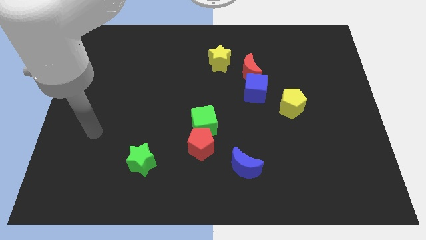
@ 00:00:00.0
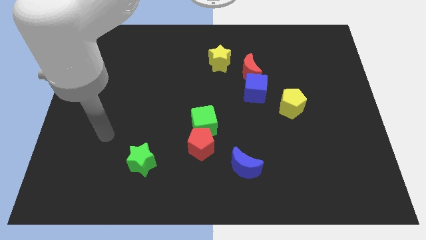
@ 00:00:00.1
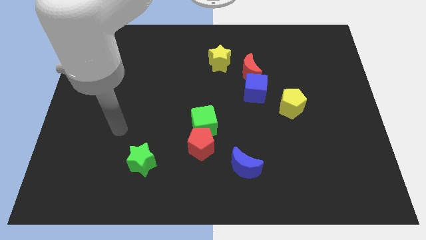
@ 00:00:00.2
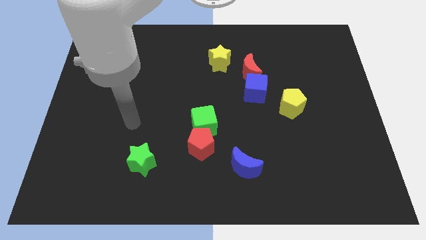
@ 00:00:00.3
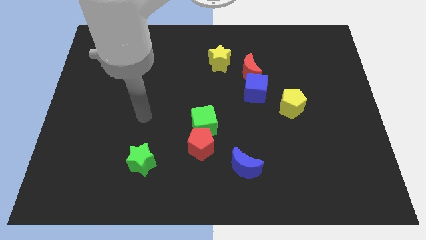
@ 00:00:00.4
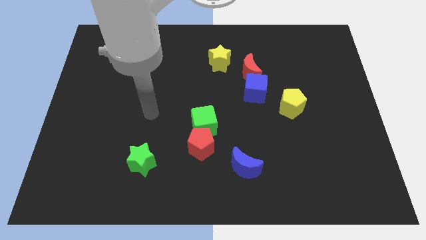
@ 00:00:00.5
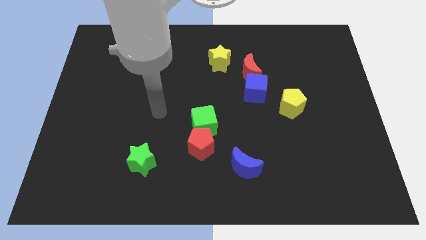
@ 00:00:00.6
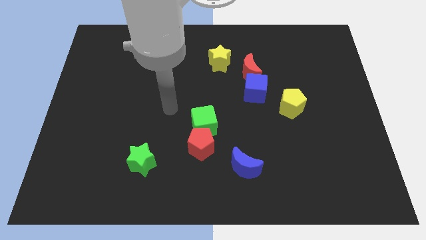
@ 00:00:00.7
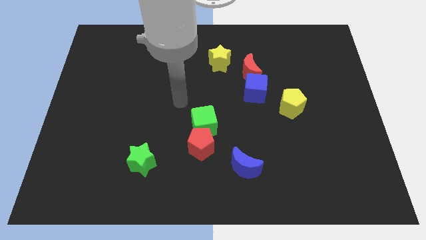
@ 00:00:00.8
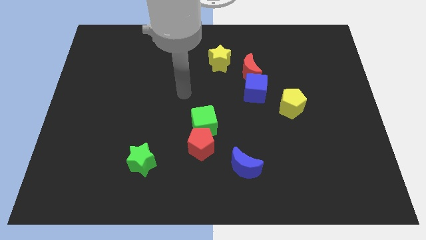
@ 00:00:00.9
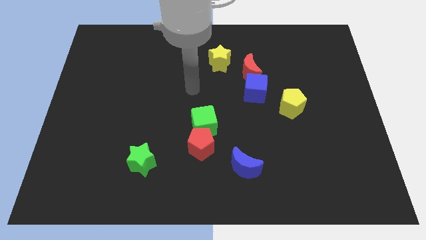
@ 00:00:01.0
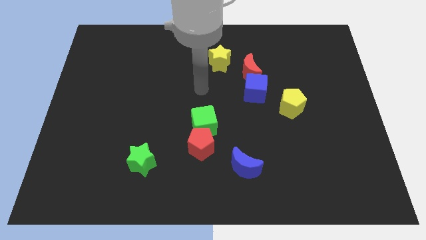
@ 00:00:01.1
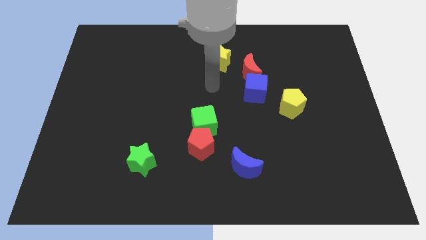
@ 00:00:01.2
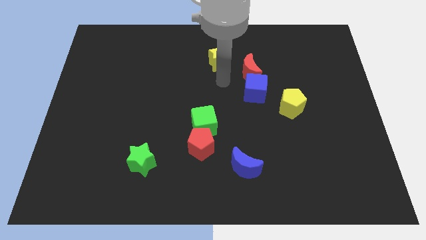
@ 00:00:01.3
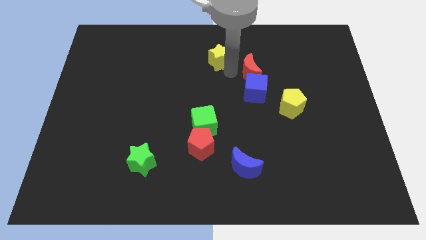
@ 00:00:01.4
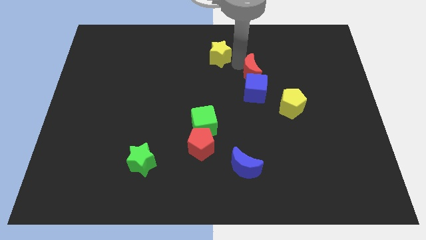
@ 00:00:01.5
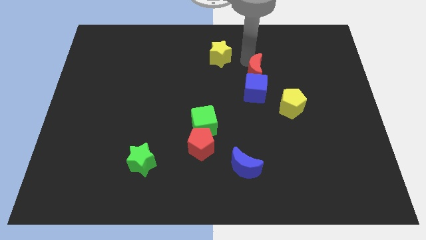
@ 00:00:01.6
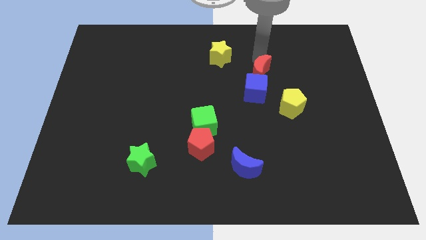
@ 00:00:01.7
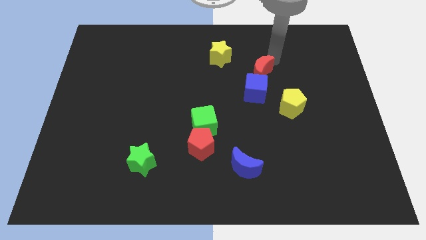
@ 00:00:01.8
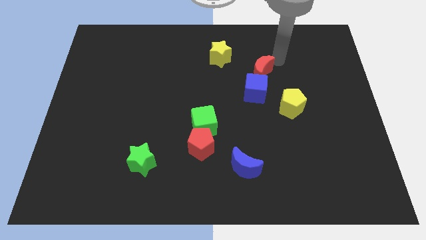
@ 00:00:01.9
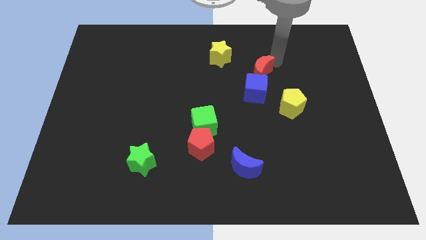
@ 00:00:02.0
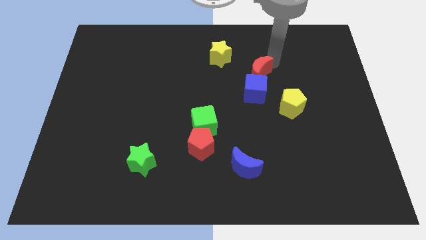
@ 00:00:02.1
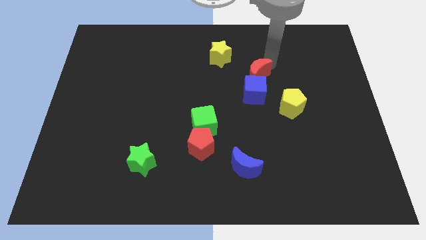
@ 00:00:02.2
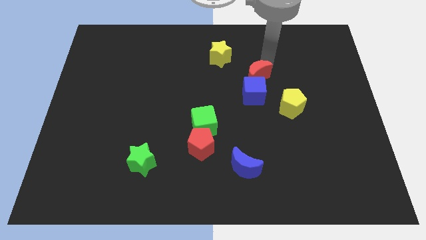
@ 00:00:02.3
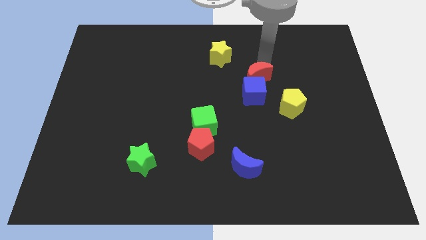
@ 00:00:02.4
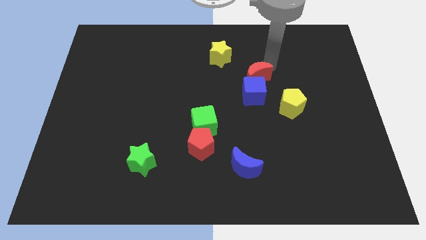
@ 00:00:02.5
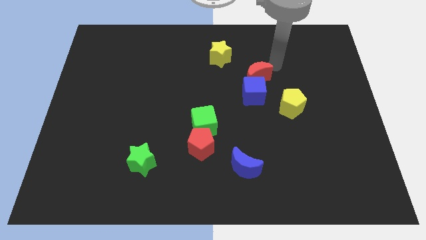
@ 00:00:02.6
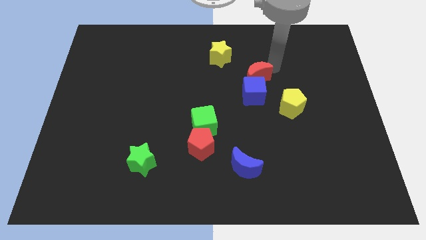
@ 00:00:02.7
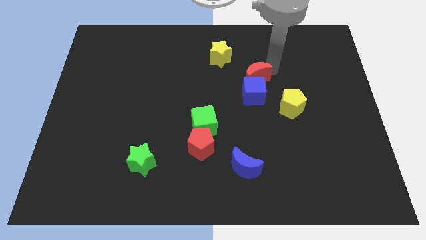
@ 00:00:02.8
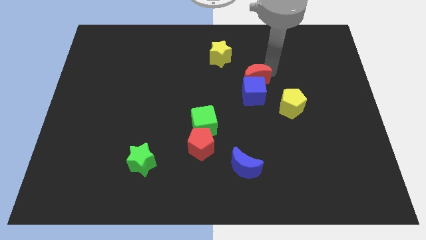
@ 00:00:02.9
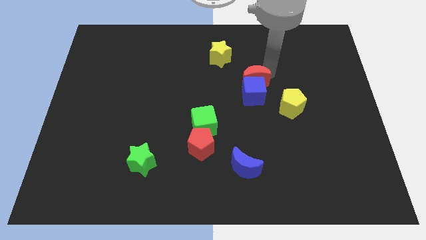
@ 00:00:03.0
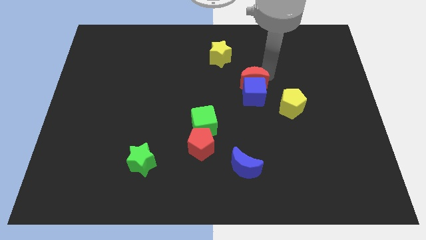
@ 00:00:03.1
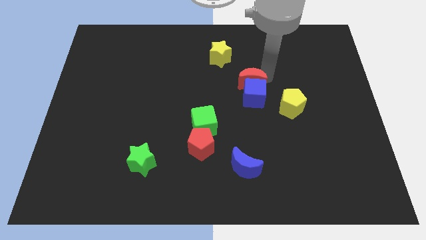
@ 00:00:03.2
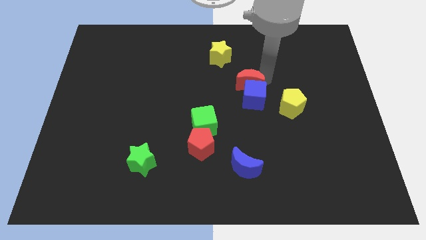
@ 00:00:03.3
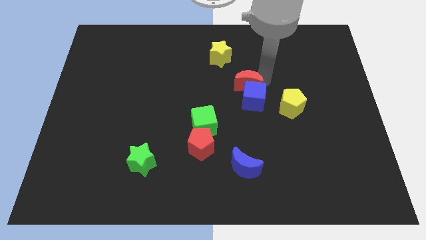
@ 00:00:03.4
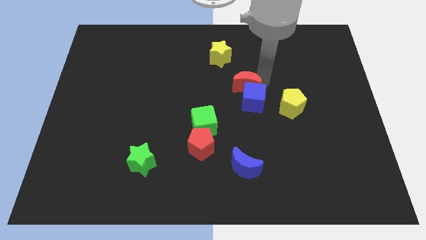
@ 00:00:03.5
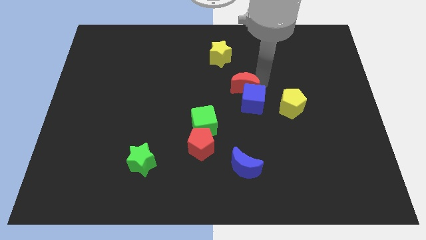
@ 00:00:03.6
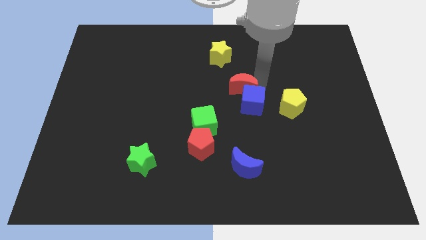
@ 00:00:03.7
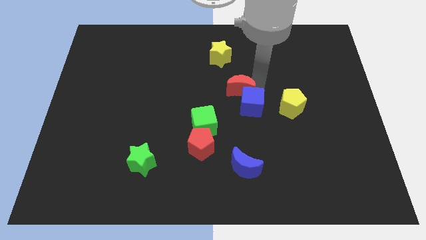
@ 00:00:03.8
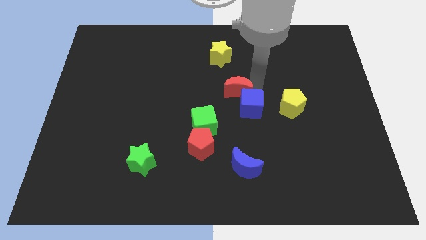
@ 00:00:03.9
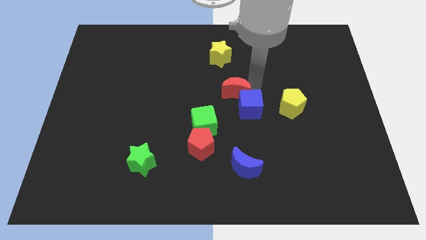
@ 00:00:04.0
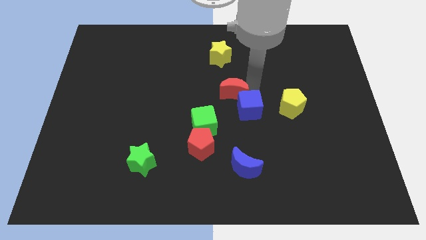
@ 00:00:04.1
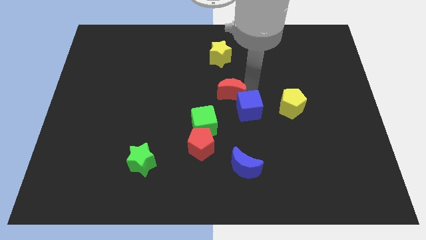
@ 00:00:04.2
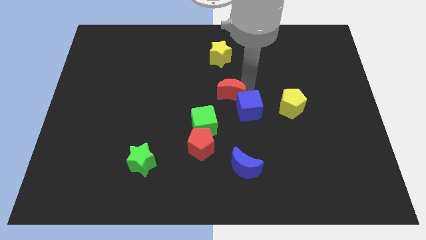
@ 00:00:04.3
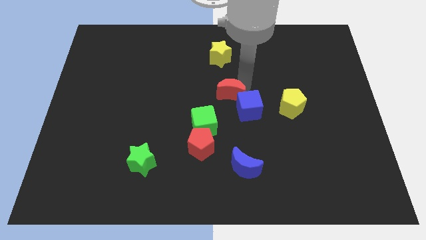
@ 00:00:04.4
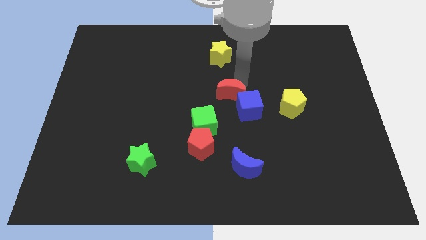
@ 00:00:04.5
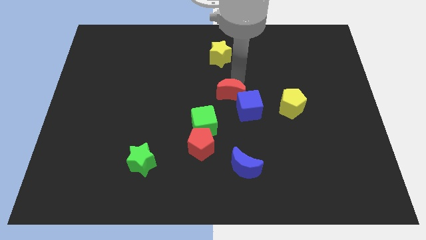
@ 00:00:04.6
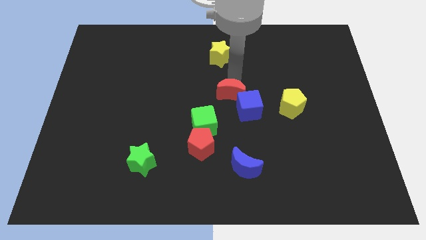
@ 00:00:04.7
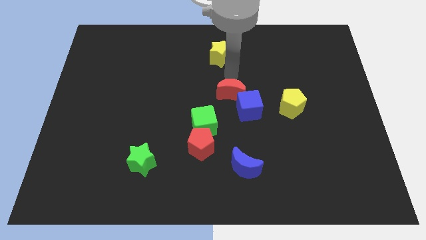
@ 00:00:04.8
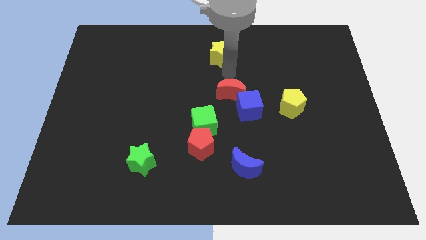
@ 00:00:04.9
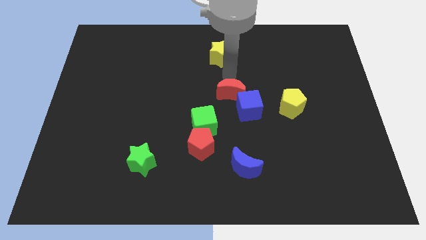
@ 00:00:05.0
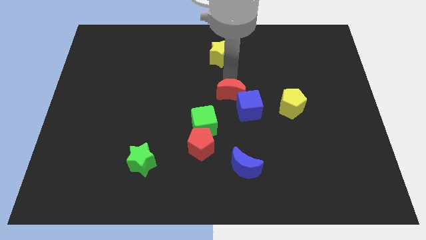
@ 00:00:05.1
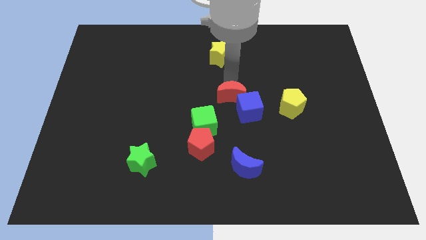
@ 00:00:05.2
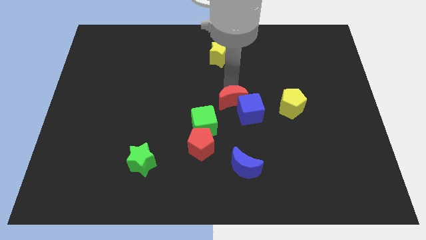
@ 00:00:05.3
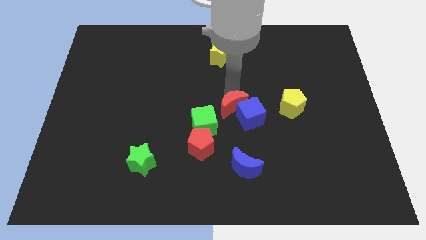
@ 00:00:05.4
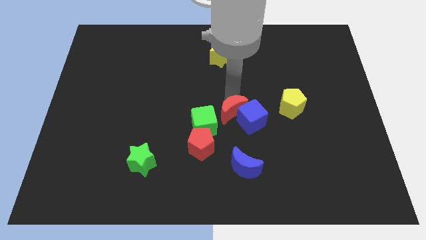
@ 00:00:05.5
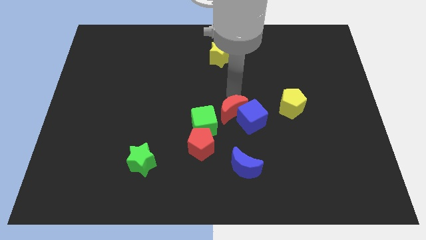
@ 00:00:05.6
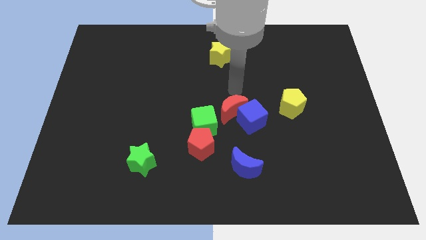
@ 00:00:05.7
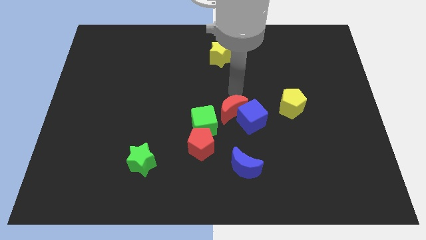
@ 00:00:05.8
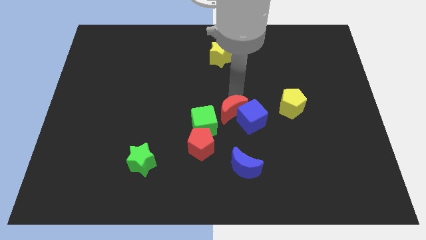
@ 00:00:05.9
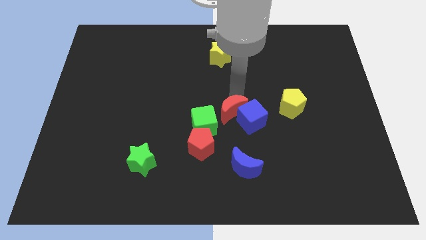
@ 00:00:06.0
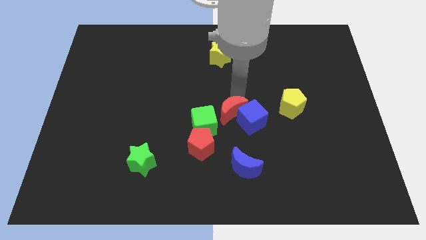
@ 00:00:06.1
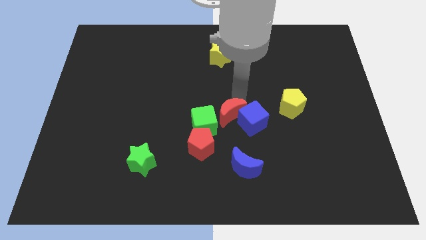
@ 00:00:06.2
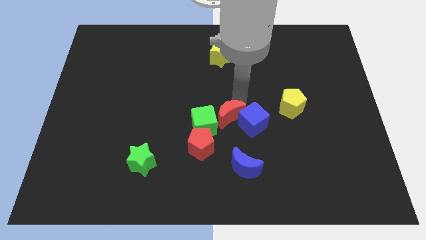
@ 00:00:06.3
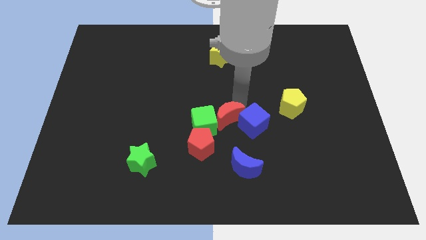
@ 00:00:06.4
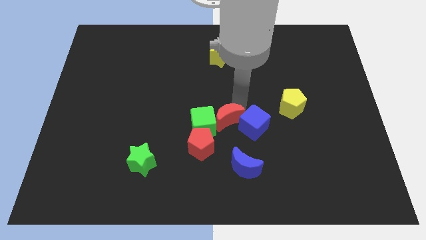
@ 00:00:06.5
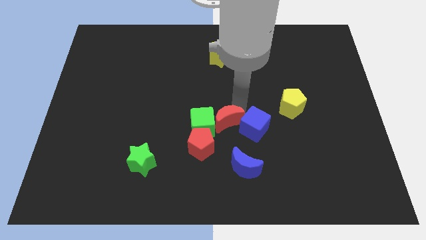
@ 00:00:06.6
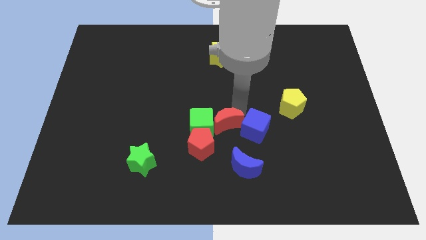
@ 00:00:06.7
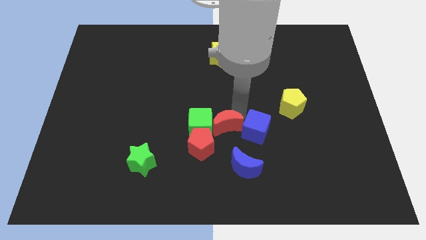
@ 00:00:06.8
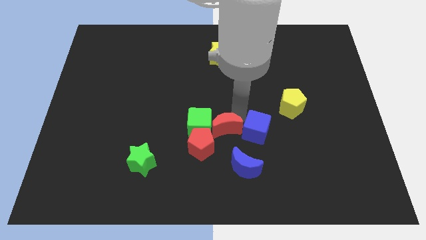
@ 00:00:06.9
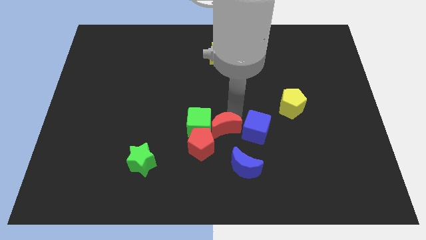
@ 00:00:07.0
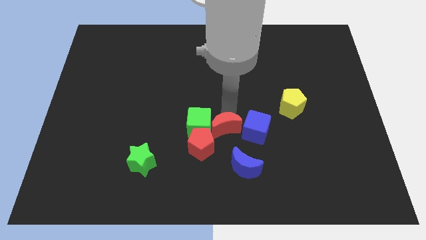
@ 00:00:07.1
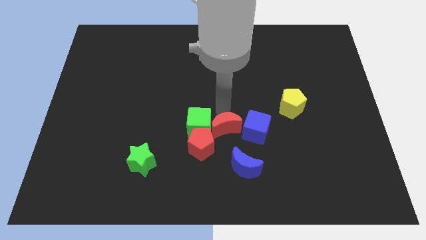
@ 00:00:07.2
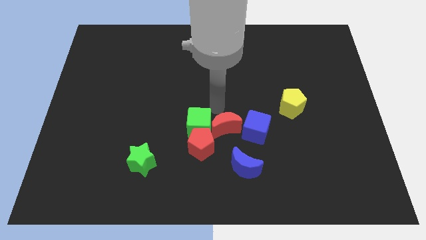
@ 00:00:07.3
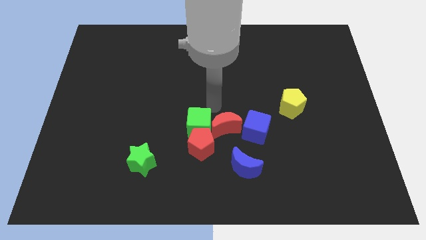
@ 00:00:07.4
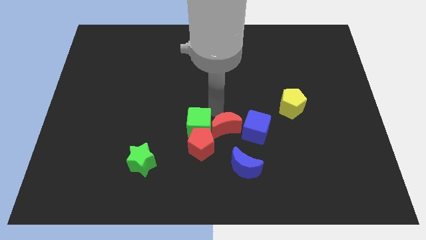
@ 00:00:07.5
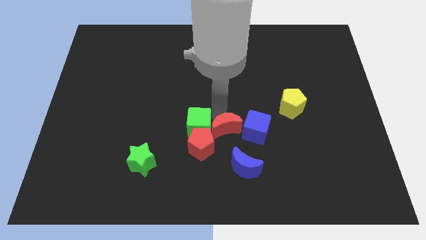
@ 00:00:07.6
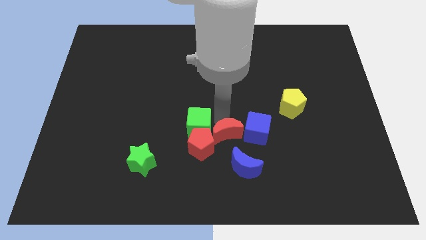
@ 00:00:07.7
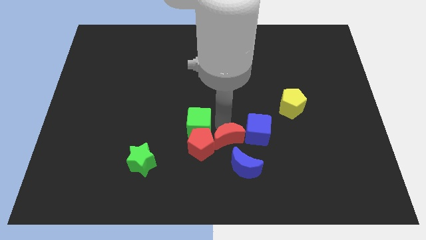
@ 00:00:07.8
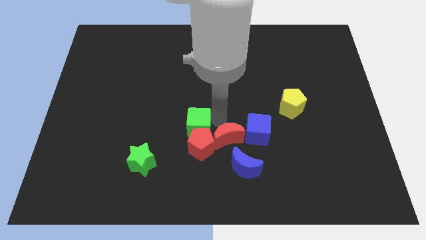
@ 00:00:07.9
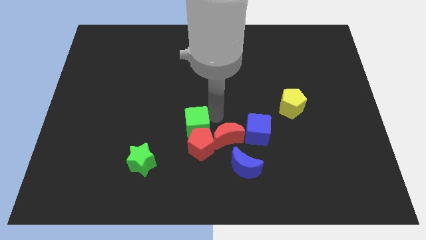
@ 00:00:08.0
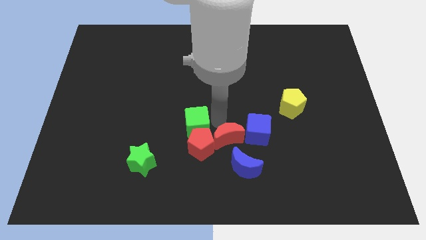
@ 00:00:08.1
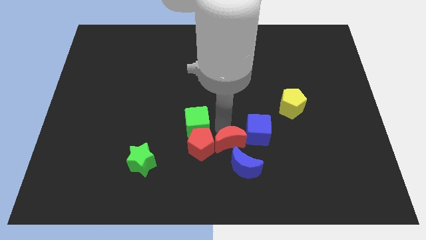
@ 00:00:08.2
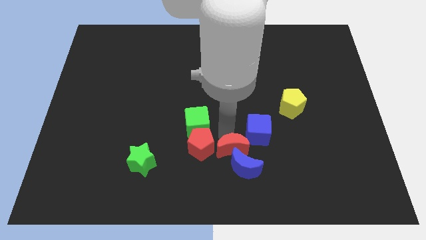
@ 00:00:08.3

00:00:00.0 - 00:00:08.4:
put the red moon close to the blue moon
